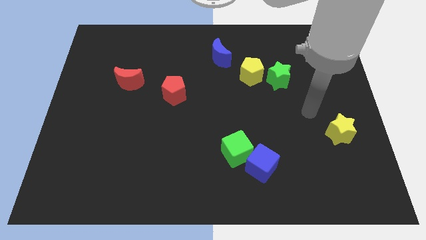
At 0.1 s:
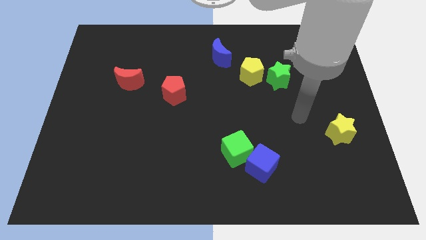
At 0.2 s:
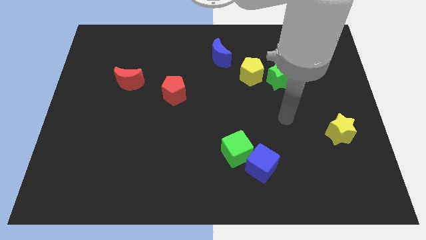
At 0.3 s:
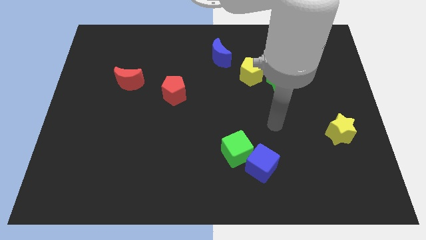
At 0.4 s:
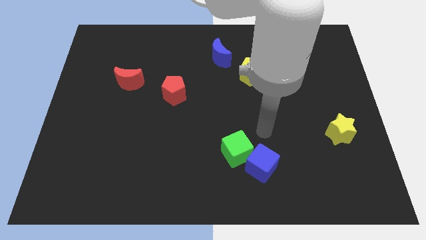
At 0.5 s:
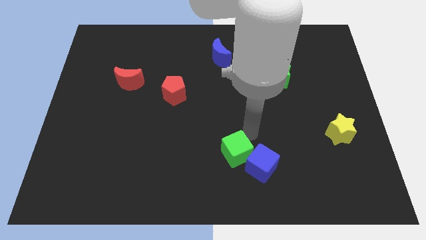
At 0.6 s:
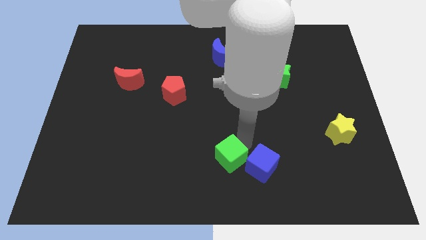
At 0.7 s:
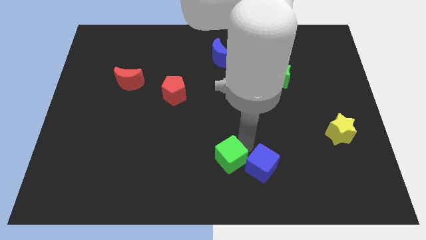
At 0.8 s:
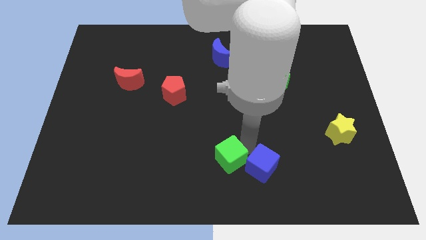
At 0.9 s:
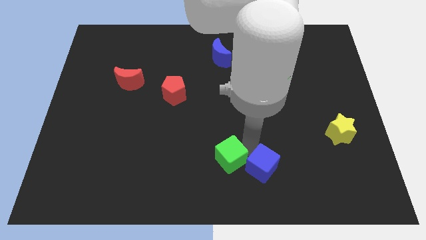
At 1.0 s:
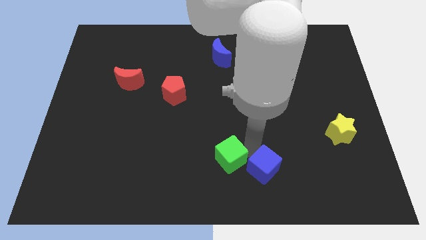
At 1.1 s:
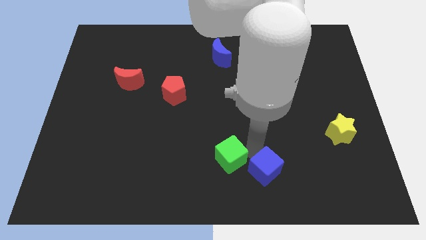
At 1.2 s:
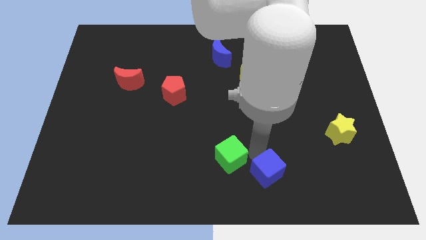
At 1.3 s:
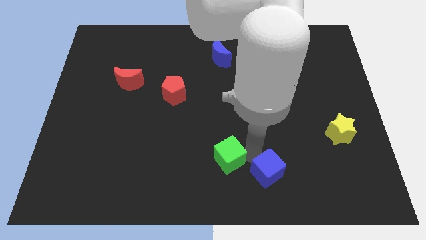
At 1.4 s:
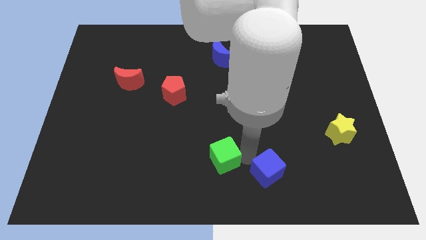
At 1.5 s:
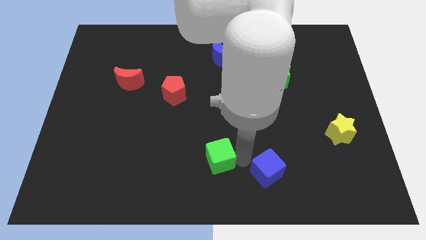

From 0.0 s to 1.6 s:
pull the blue cube apart from the green cube

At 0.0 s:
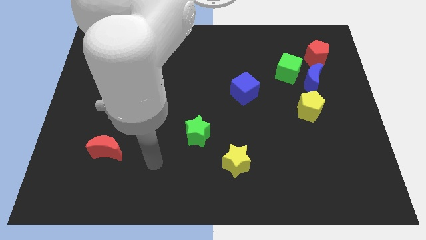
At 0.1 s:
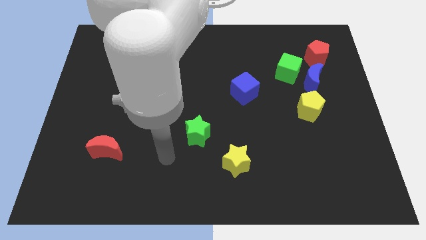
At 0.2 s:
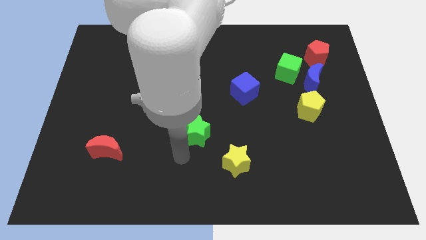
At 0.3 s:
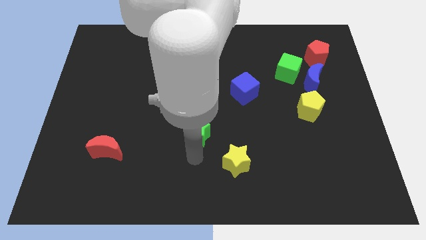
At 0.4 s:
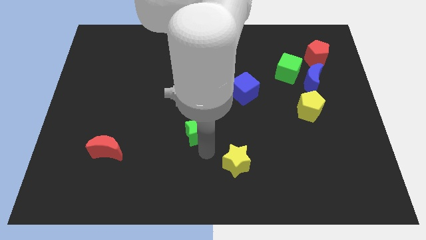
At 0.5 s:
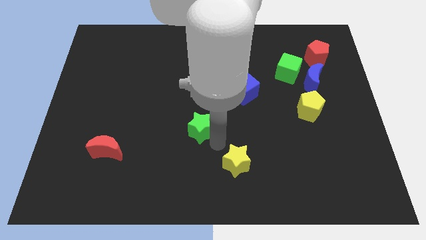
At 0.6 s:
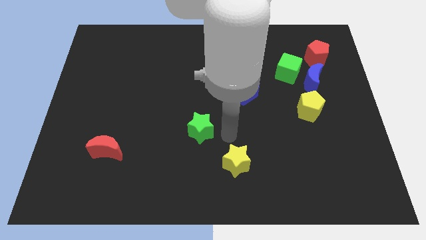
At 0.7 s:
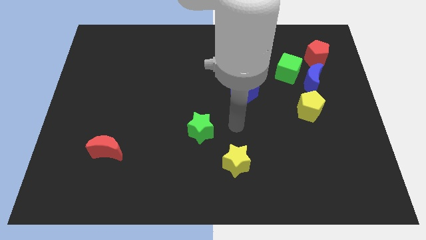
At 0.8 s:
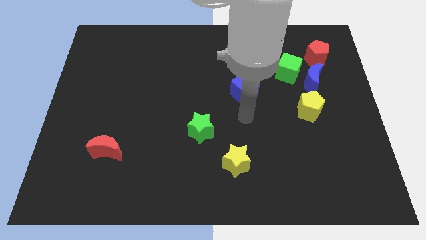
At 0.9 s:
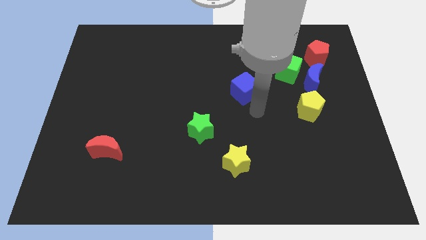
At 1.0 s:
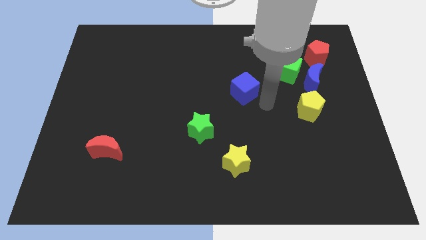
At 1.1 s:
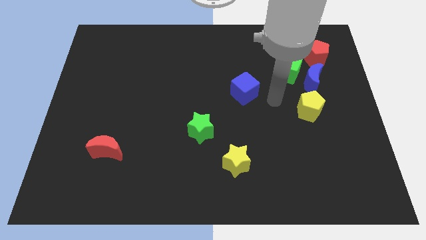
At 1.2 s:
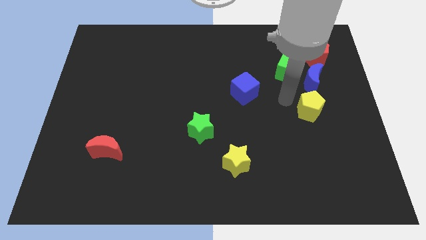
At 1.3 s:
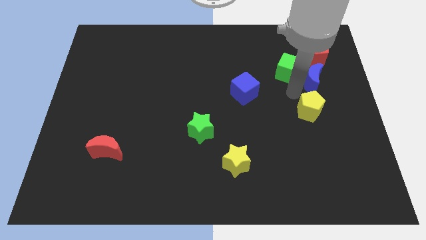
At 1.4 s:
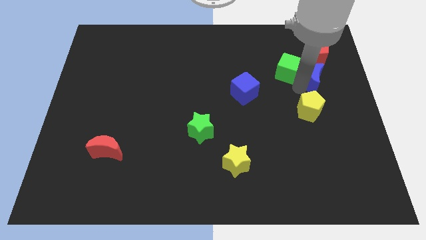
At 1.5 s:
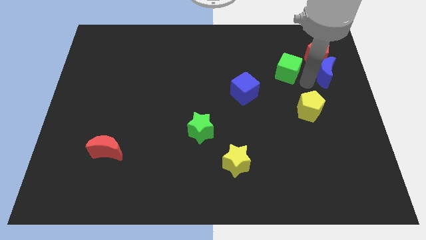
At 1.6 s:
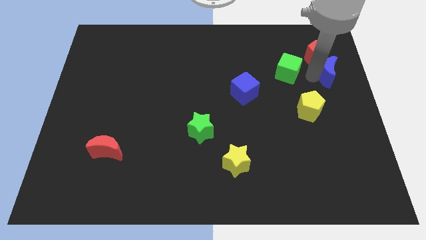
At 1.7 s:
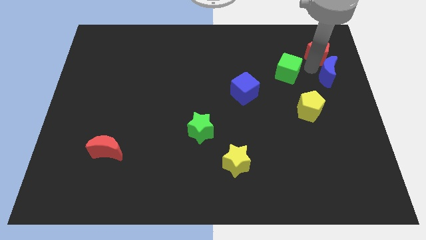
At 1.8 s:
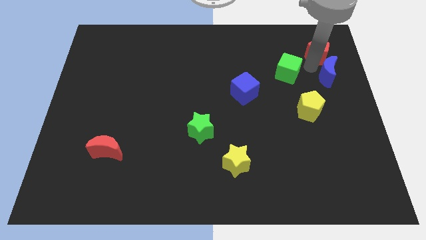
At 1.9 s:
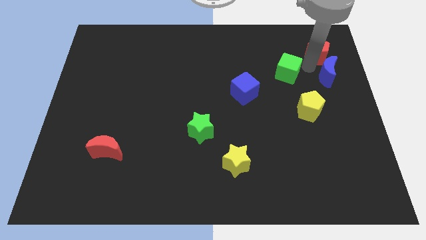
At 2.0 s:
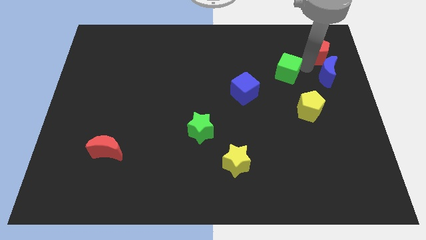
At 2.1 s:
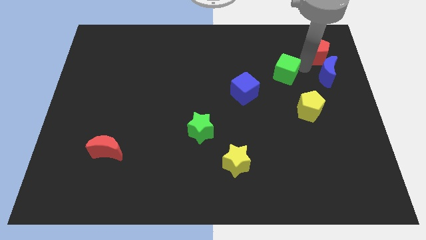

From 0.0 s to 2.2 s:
pull the green cube apart from the blue moon and red pentagon

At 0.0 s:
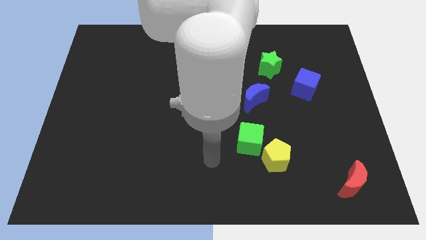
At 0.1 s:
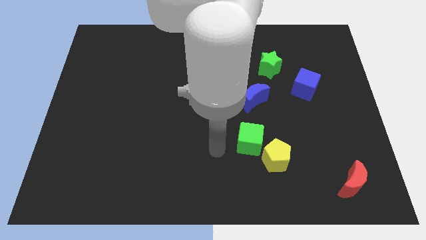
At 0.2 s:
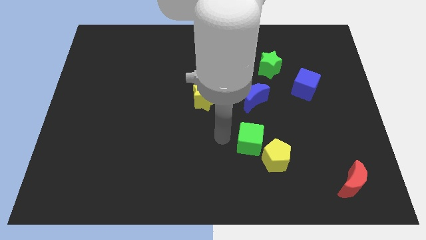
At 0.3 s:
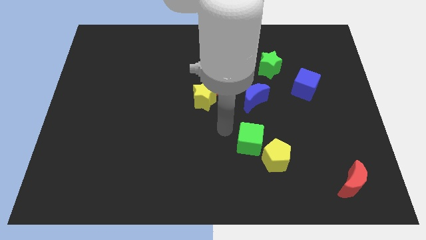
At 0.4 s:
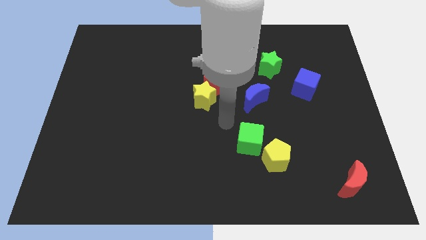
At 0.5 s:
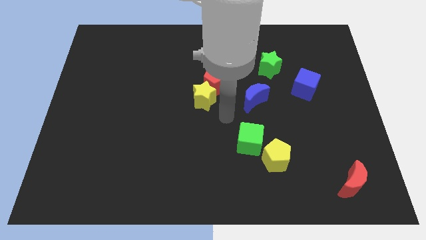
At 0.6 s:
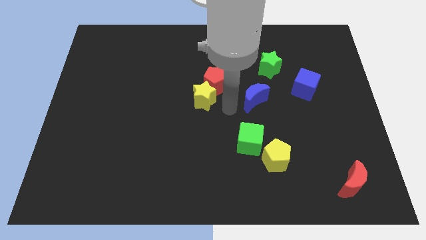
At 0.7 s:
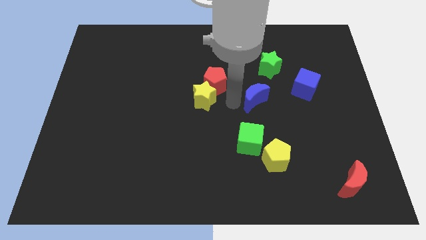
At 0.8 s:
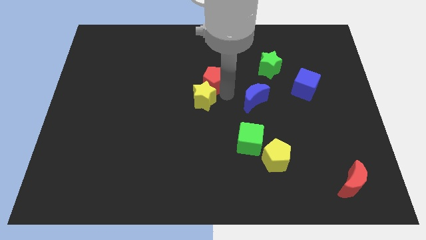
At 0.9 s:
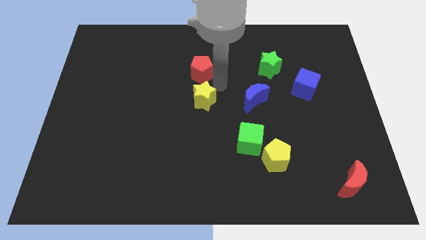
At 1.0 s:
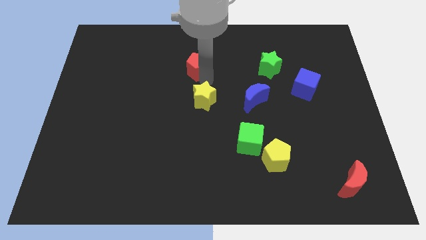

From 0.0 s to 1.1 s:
move the yellow star away from the red pentagon

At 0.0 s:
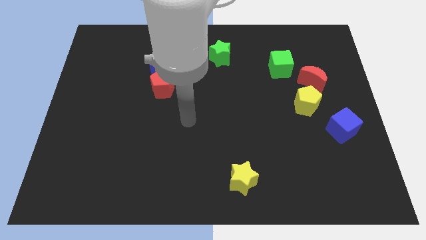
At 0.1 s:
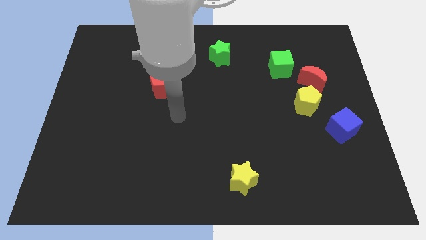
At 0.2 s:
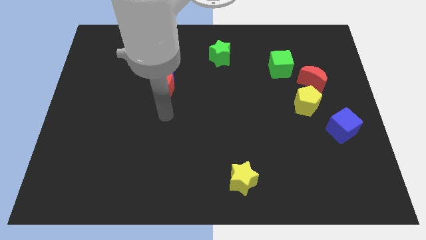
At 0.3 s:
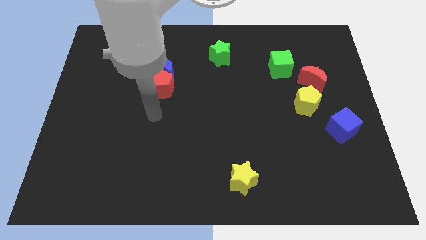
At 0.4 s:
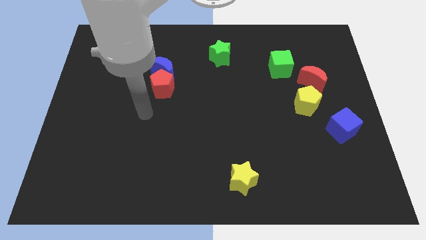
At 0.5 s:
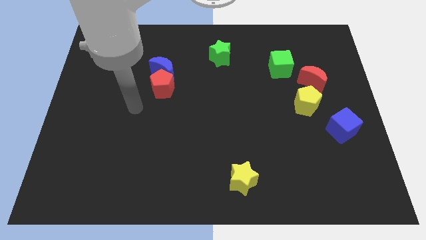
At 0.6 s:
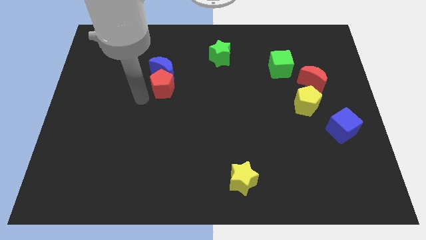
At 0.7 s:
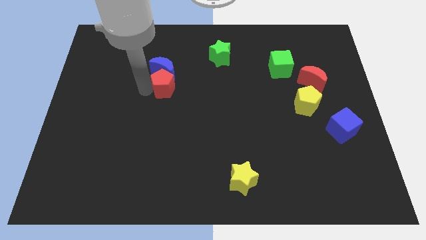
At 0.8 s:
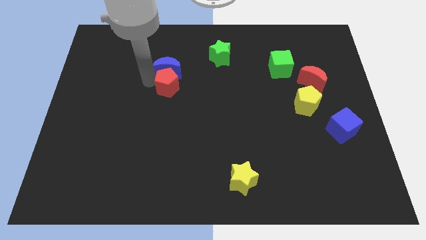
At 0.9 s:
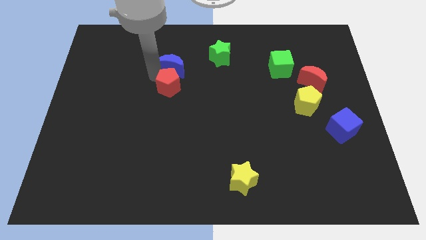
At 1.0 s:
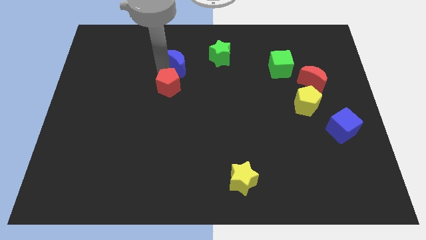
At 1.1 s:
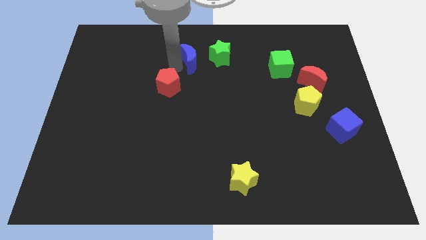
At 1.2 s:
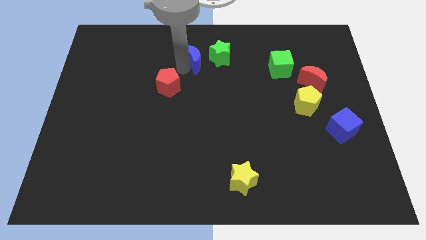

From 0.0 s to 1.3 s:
separate the red pentagon from the blue moon

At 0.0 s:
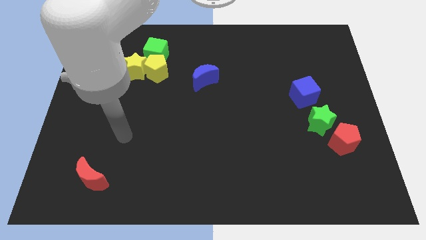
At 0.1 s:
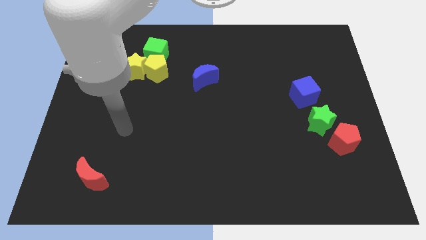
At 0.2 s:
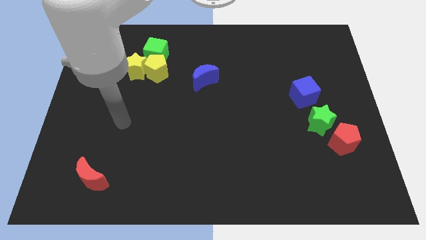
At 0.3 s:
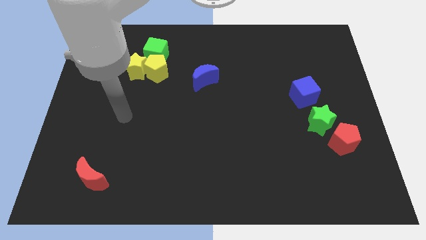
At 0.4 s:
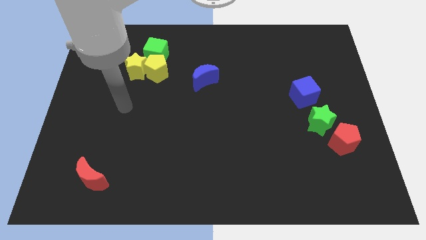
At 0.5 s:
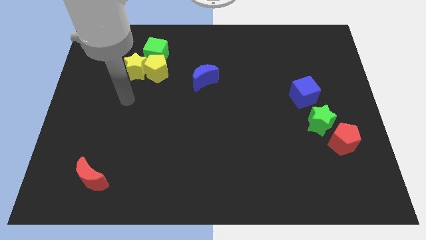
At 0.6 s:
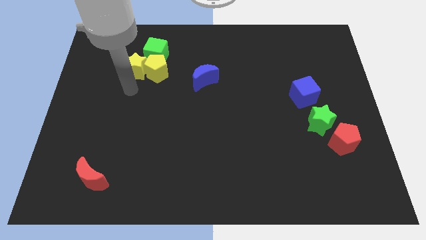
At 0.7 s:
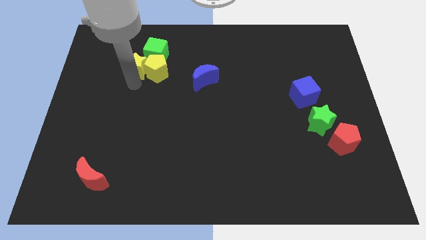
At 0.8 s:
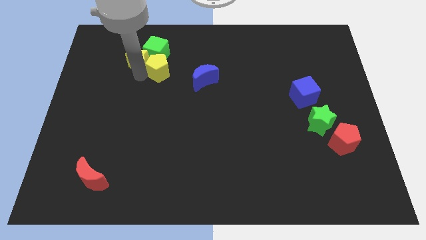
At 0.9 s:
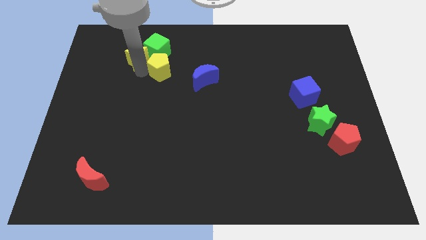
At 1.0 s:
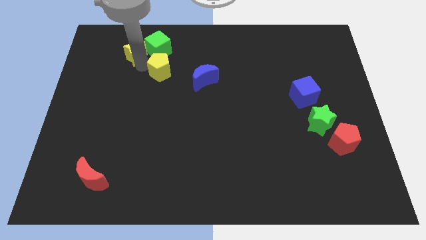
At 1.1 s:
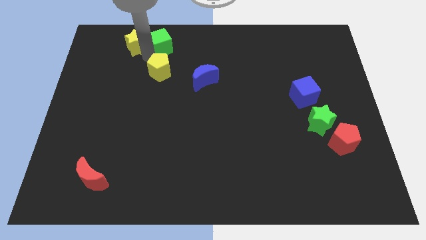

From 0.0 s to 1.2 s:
pull the yellow pentagon apart from the yellow star and green cube

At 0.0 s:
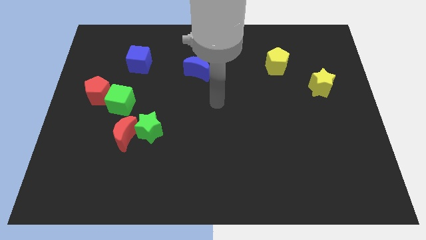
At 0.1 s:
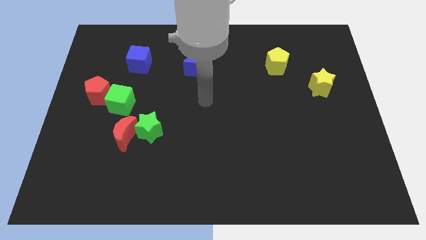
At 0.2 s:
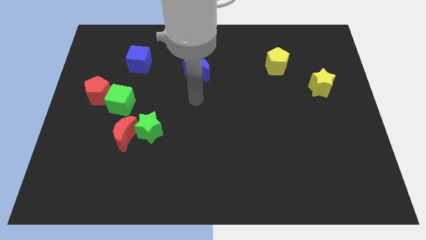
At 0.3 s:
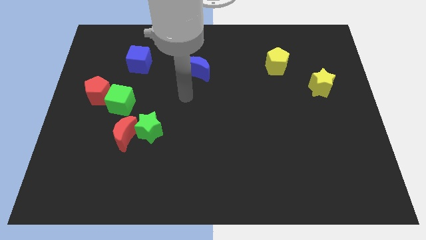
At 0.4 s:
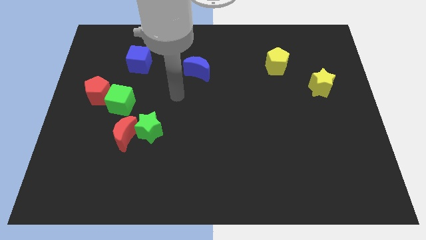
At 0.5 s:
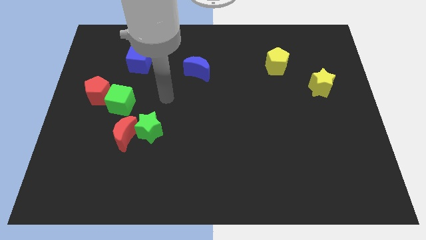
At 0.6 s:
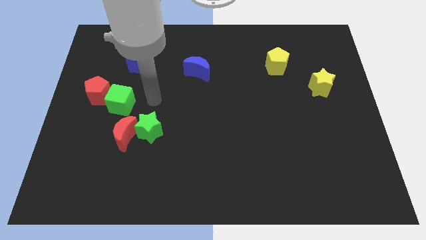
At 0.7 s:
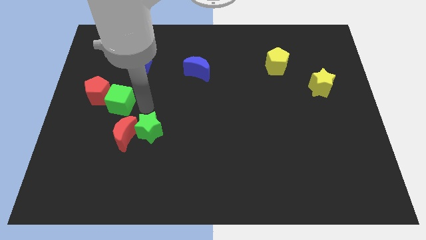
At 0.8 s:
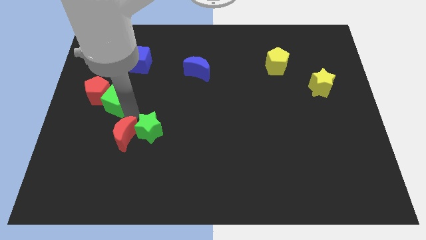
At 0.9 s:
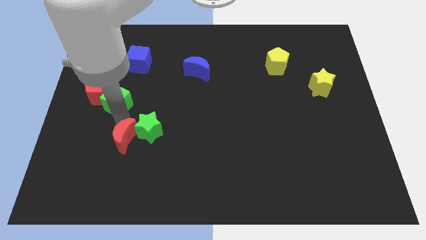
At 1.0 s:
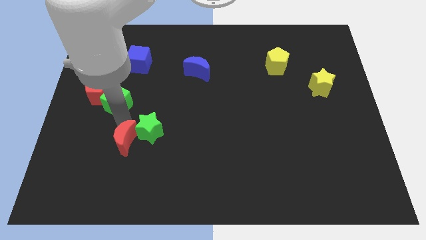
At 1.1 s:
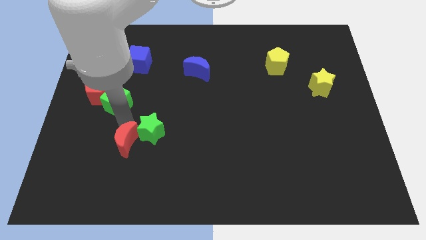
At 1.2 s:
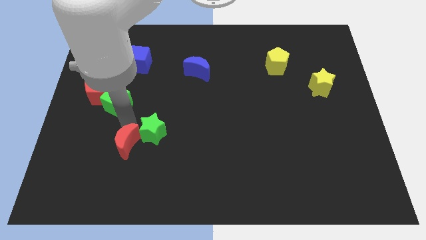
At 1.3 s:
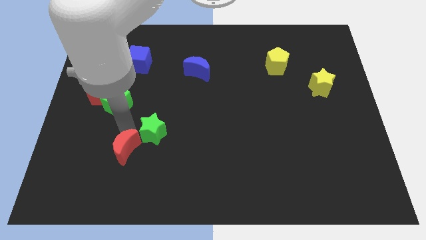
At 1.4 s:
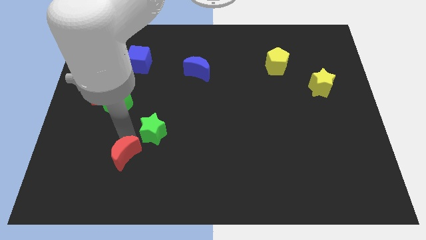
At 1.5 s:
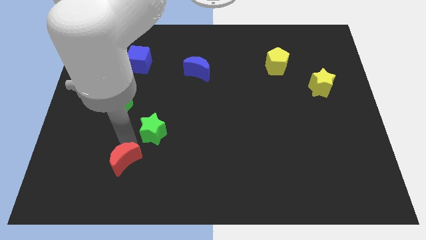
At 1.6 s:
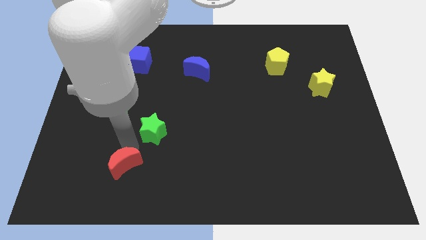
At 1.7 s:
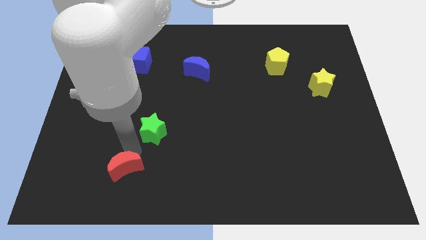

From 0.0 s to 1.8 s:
move the green star away from the red moon

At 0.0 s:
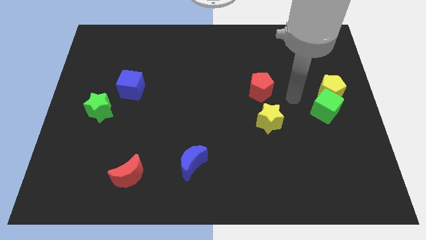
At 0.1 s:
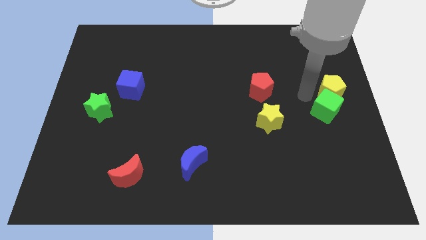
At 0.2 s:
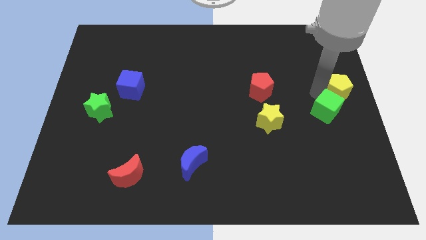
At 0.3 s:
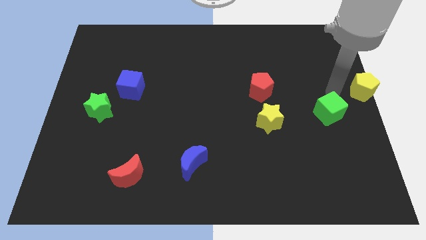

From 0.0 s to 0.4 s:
move the green cube away from the yellow pentagon
